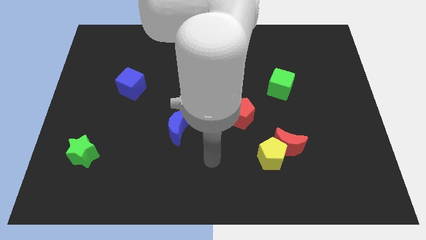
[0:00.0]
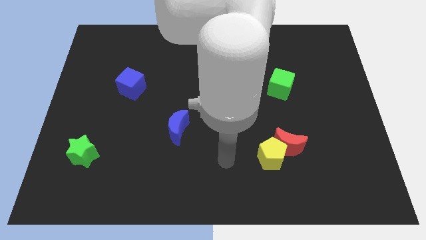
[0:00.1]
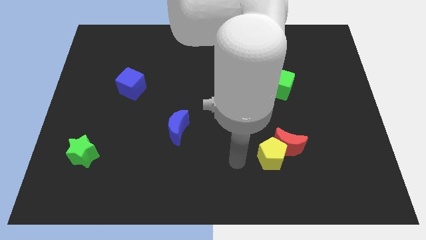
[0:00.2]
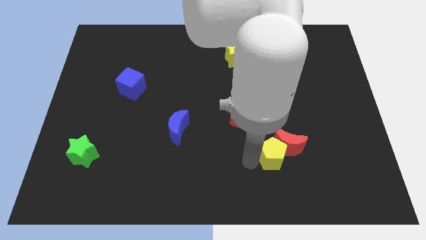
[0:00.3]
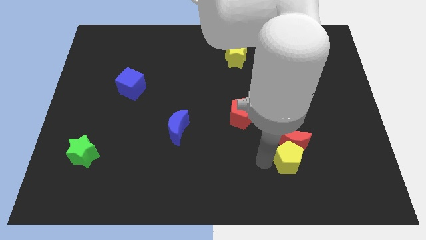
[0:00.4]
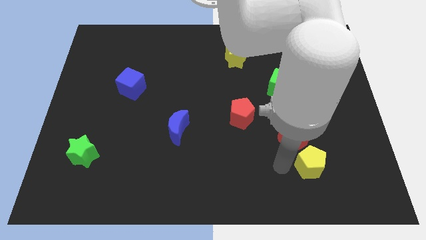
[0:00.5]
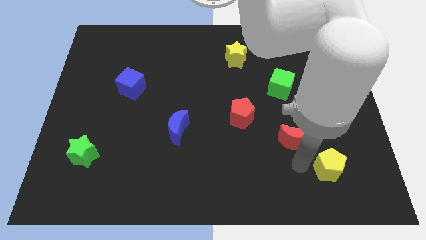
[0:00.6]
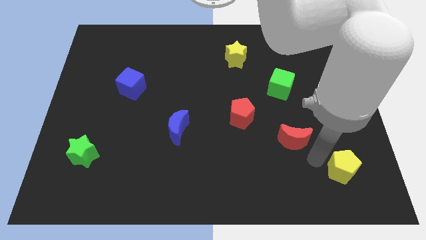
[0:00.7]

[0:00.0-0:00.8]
separate the red moon from the yellow pentagon

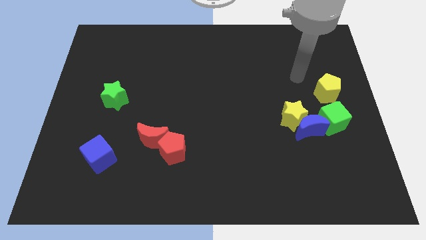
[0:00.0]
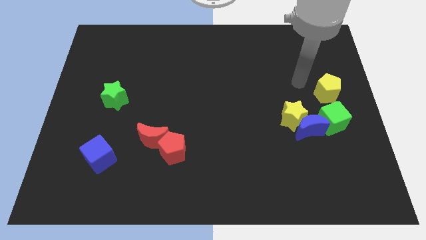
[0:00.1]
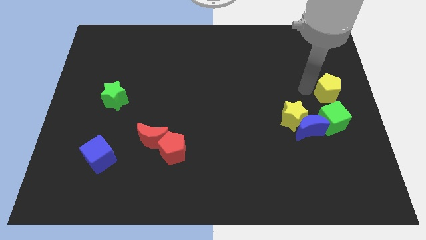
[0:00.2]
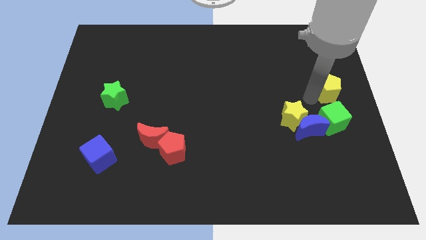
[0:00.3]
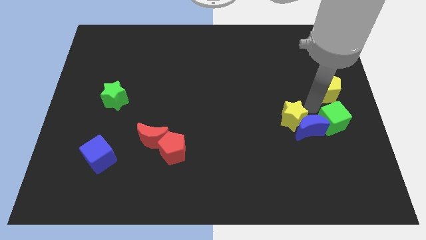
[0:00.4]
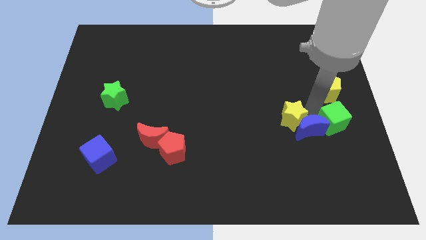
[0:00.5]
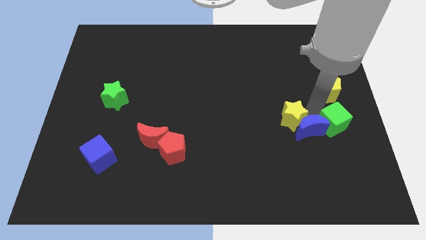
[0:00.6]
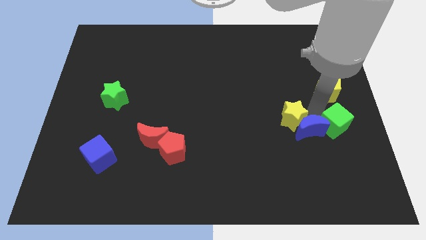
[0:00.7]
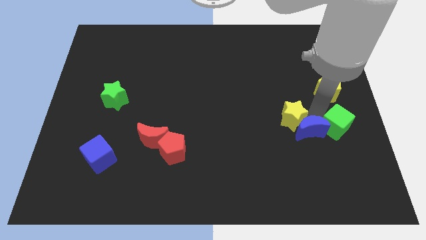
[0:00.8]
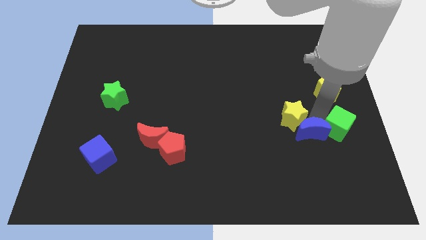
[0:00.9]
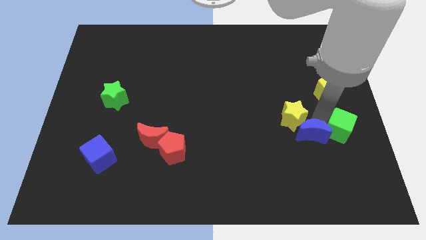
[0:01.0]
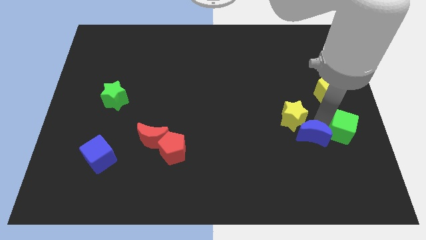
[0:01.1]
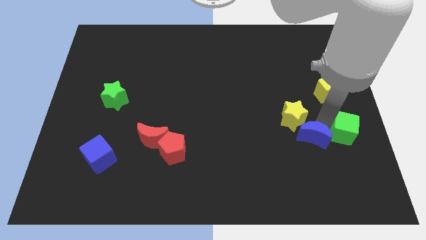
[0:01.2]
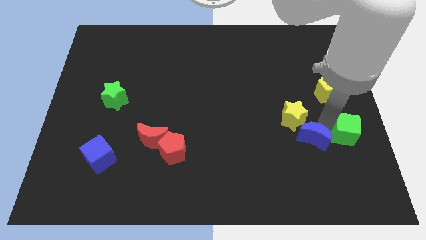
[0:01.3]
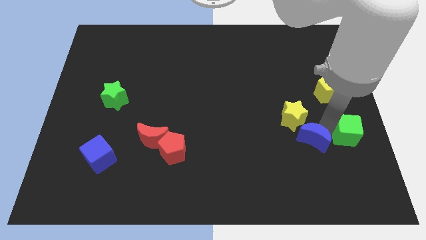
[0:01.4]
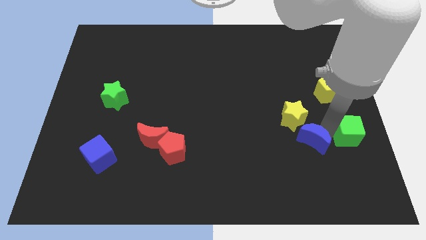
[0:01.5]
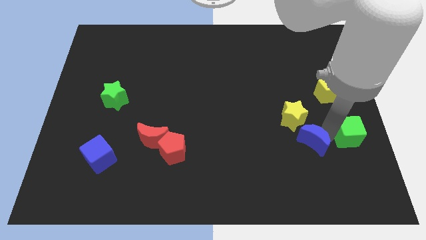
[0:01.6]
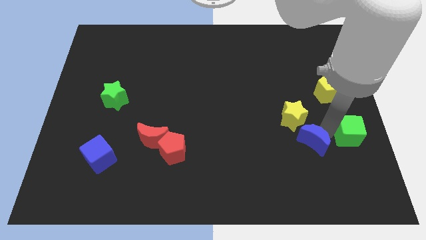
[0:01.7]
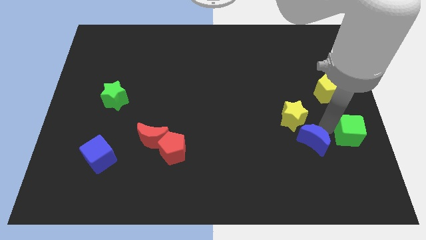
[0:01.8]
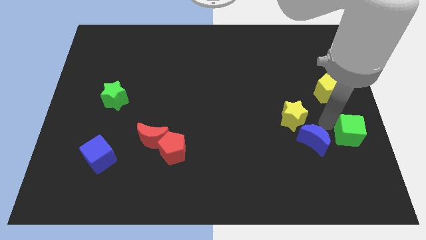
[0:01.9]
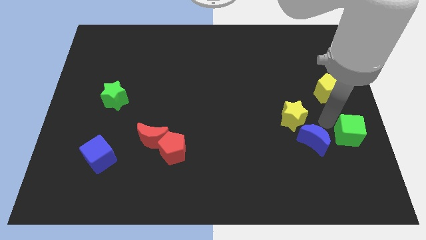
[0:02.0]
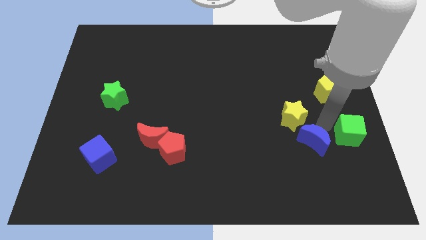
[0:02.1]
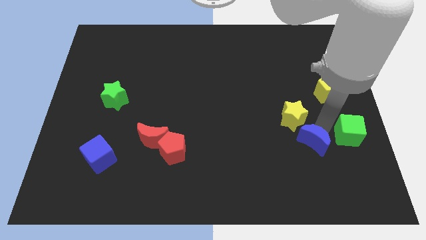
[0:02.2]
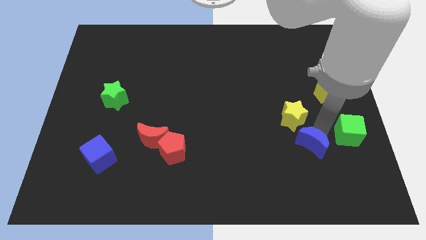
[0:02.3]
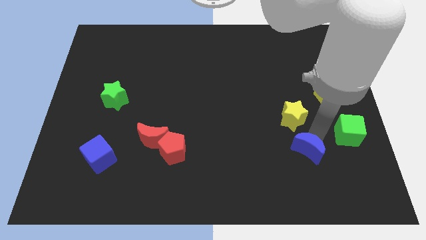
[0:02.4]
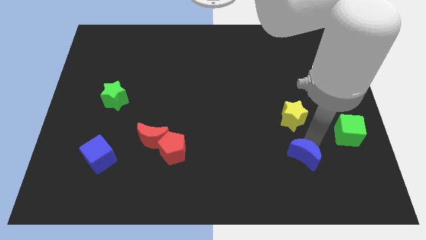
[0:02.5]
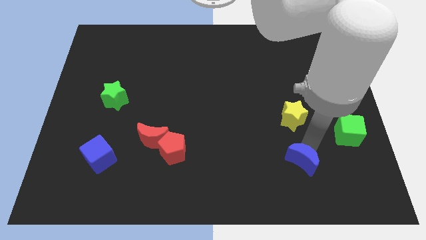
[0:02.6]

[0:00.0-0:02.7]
separate the blue moon from the yellow star and green cube

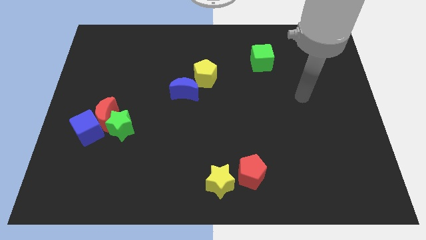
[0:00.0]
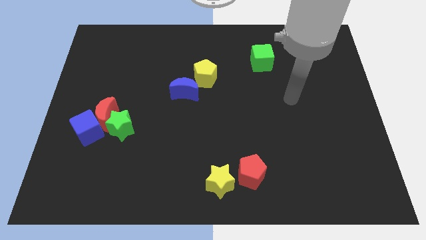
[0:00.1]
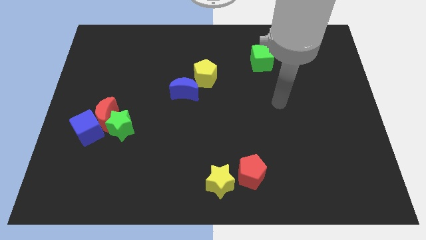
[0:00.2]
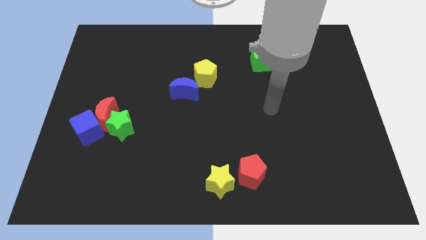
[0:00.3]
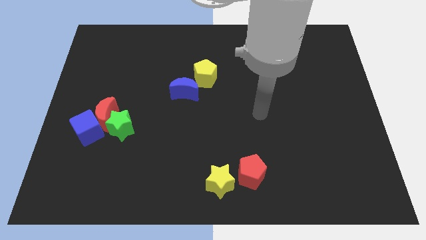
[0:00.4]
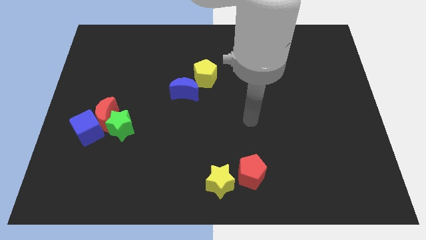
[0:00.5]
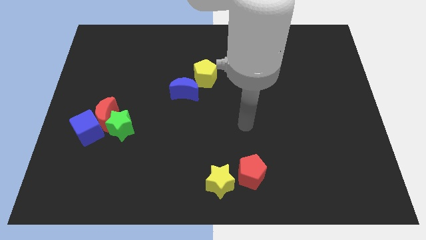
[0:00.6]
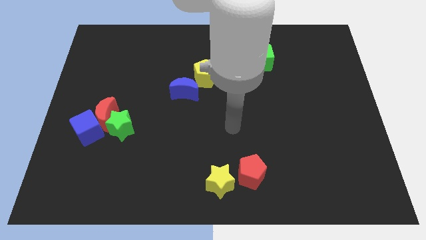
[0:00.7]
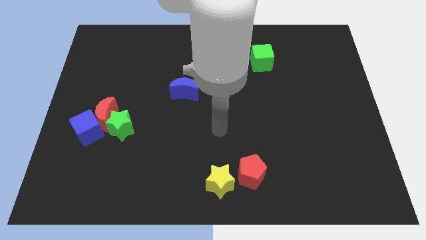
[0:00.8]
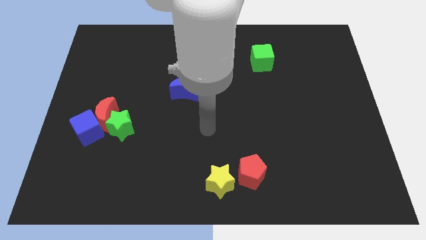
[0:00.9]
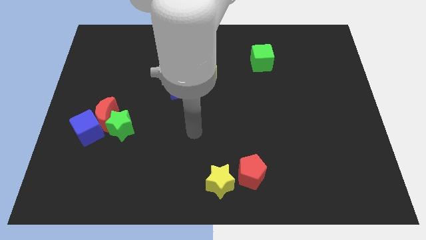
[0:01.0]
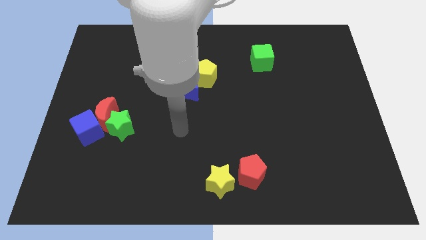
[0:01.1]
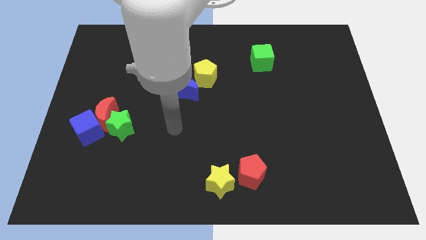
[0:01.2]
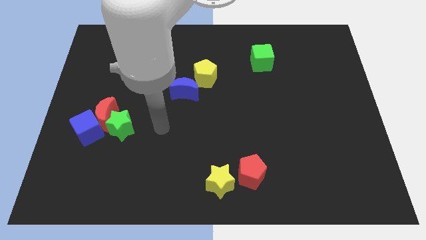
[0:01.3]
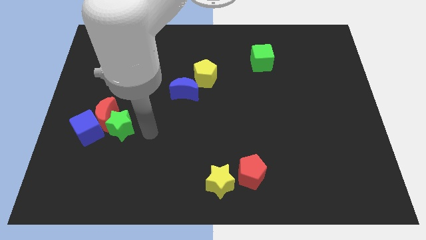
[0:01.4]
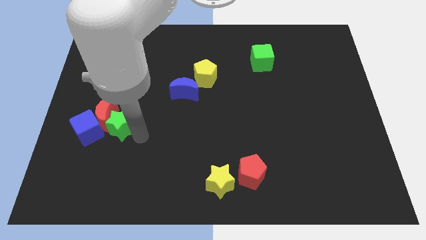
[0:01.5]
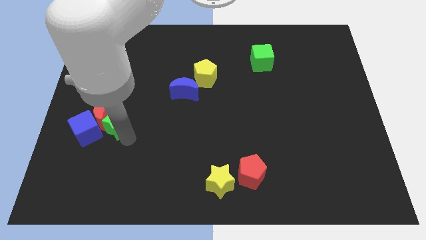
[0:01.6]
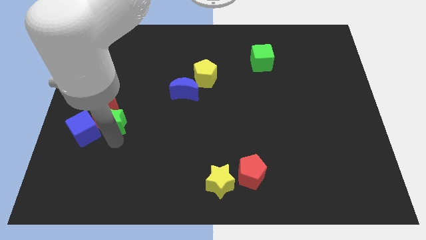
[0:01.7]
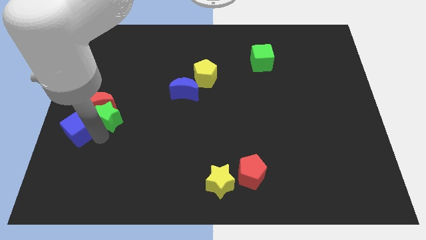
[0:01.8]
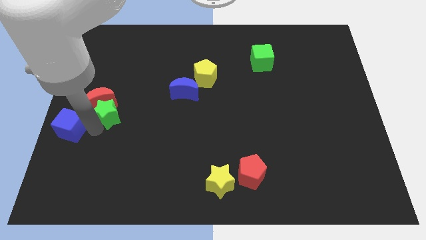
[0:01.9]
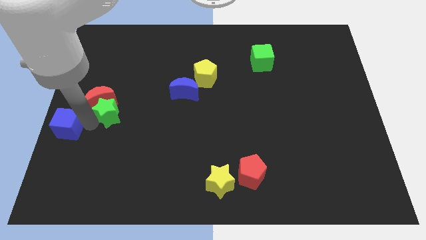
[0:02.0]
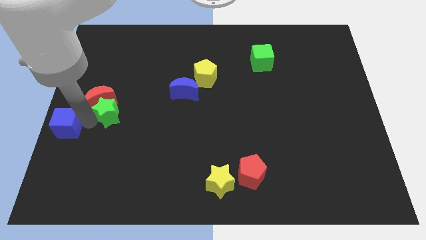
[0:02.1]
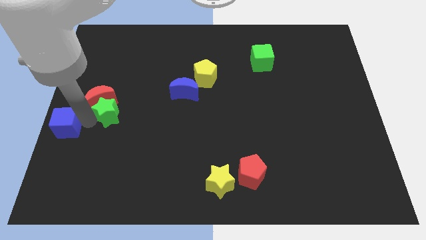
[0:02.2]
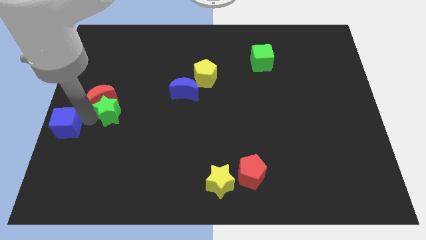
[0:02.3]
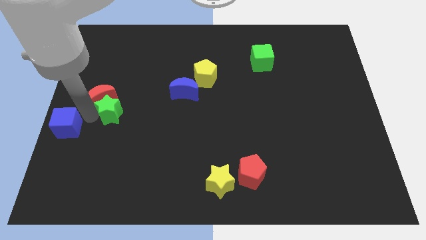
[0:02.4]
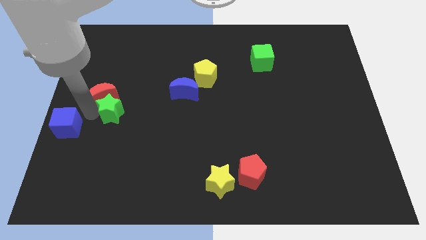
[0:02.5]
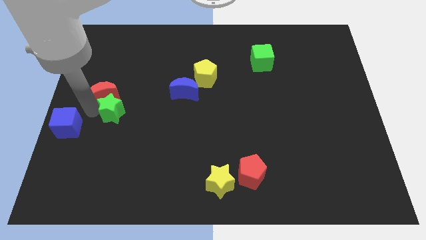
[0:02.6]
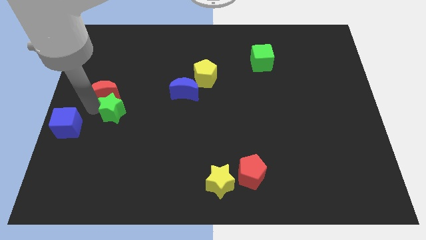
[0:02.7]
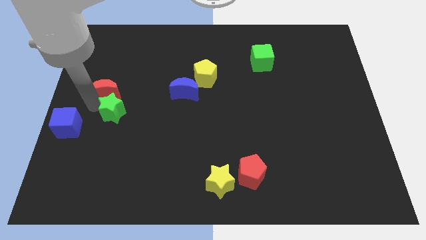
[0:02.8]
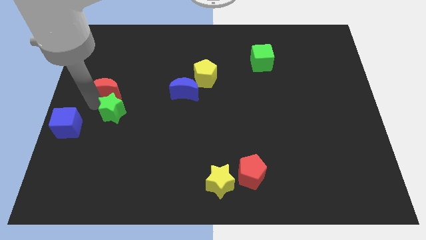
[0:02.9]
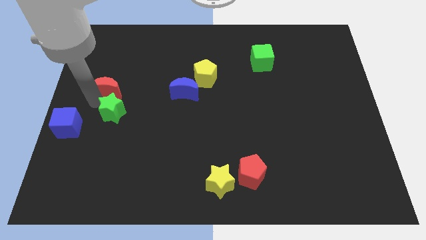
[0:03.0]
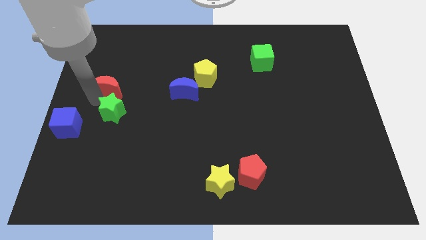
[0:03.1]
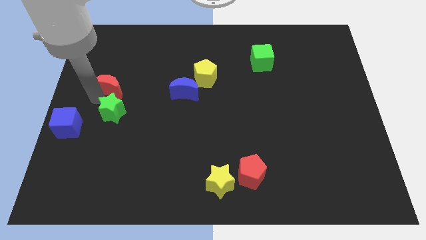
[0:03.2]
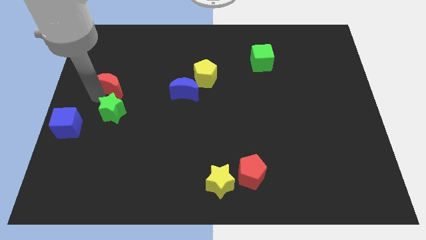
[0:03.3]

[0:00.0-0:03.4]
move the red moon away from the blue cube and green star

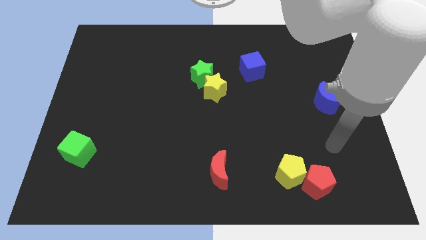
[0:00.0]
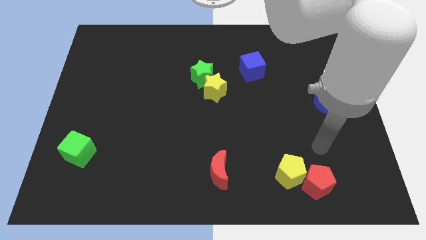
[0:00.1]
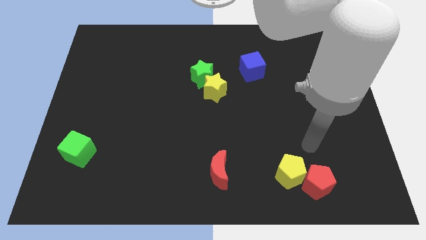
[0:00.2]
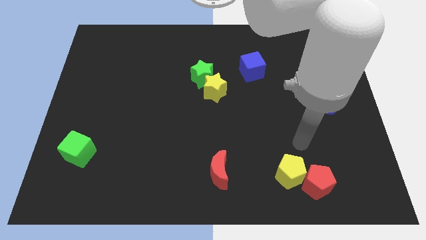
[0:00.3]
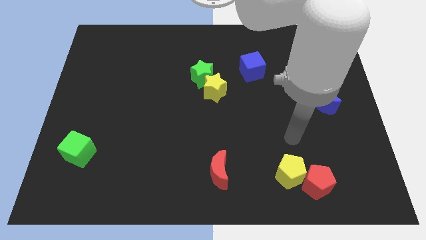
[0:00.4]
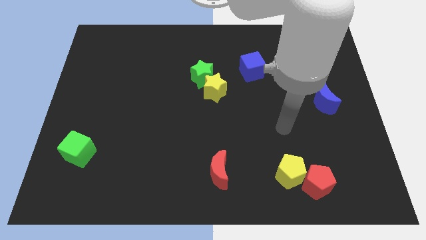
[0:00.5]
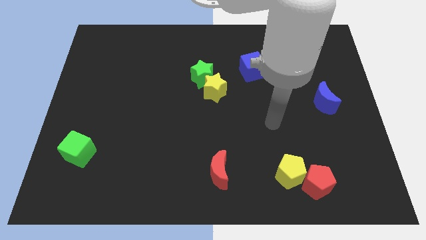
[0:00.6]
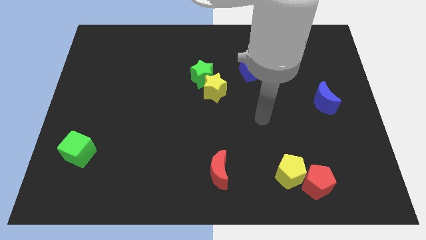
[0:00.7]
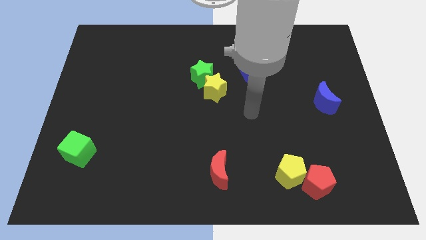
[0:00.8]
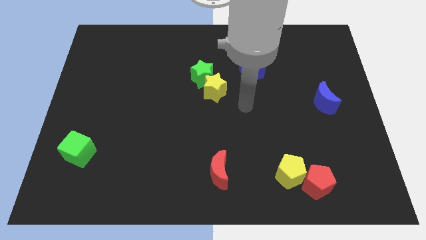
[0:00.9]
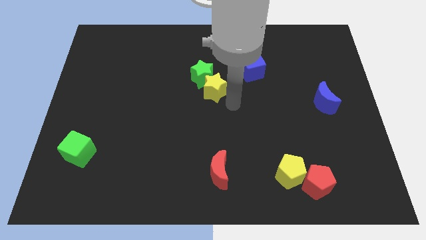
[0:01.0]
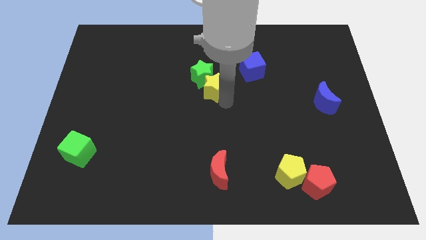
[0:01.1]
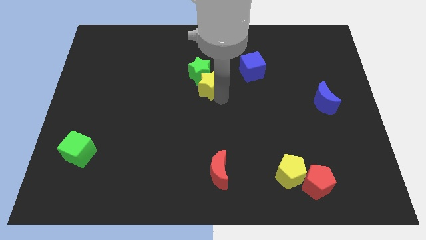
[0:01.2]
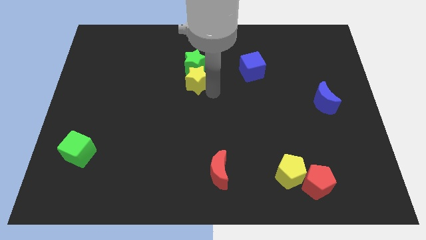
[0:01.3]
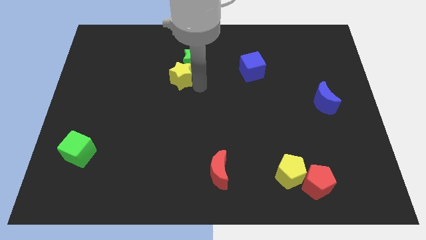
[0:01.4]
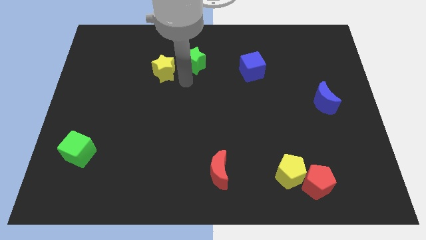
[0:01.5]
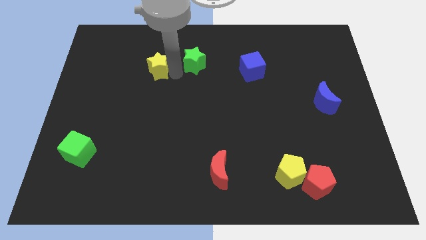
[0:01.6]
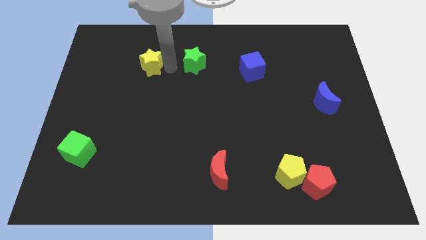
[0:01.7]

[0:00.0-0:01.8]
move the green star away from the yellow star

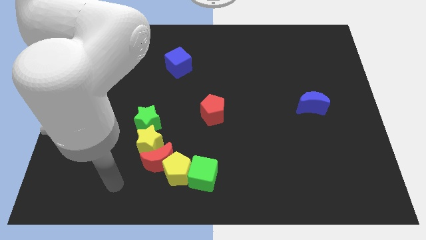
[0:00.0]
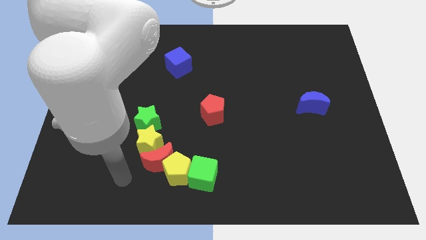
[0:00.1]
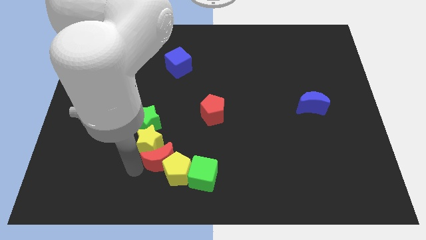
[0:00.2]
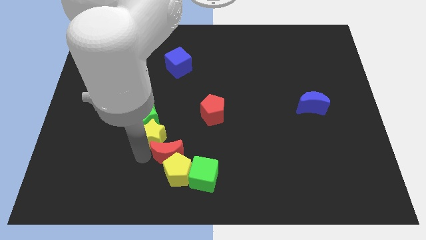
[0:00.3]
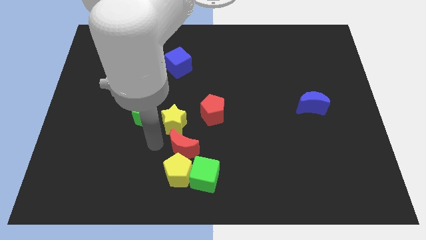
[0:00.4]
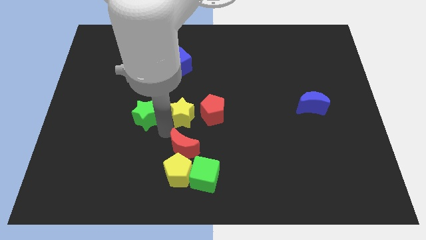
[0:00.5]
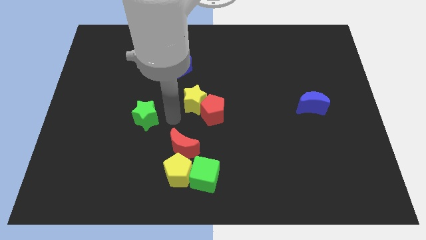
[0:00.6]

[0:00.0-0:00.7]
pull the green star apart from the yellow star
